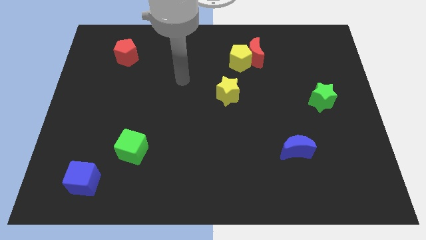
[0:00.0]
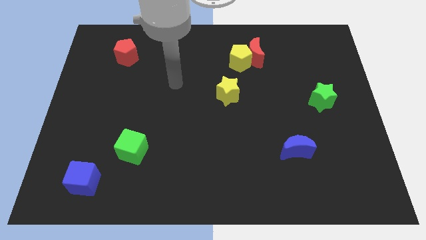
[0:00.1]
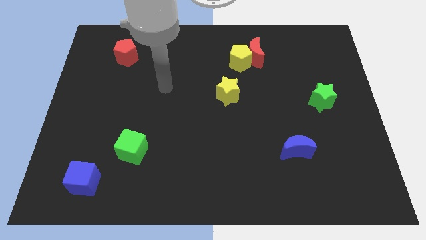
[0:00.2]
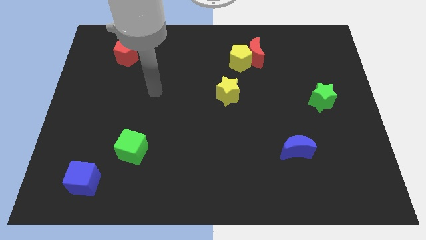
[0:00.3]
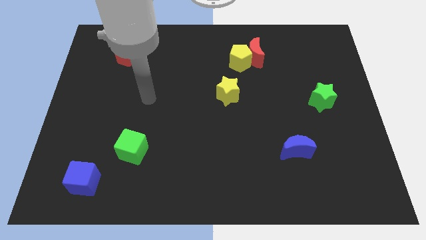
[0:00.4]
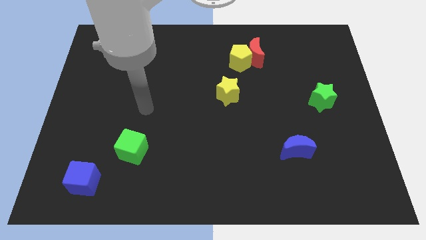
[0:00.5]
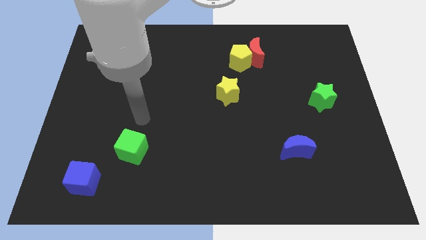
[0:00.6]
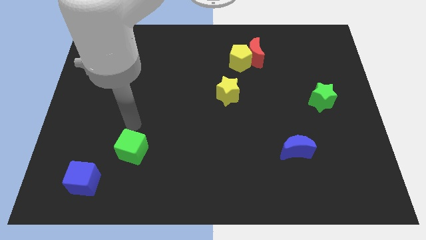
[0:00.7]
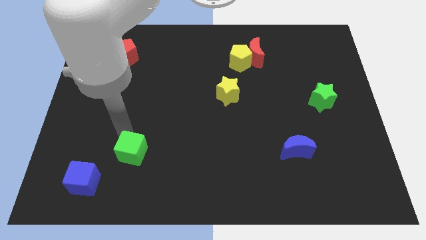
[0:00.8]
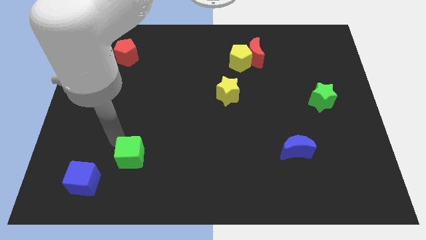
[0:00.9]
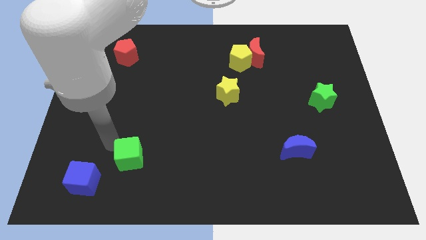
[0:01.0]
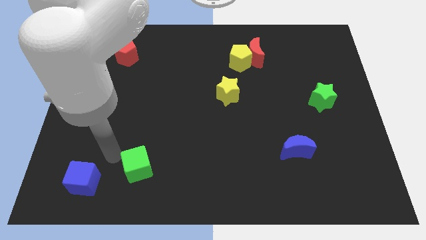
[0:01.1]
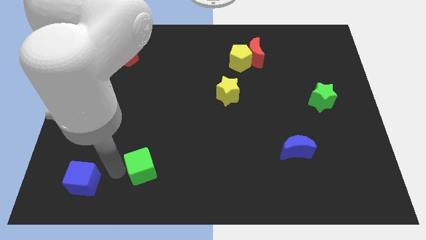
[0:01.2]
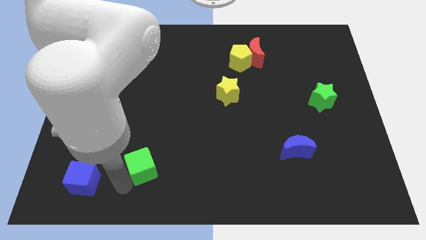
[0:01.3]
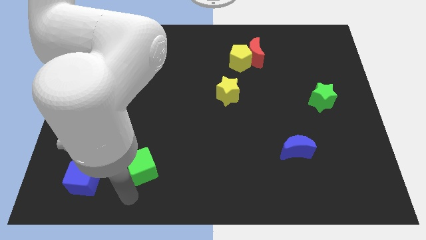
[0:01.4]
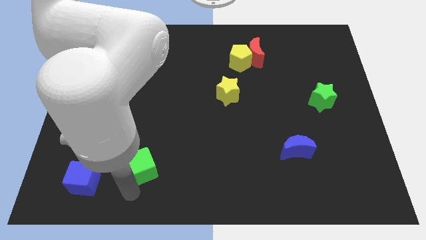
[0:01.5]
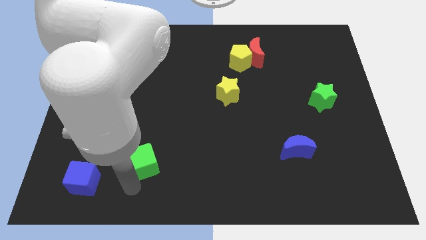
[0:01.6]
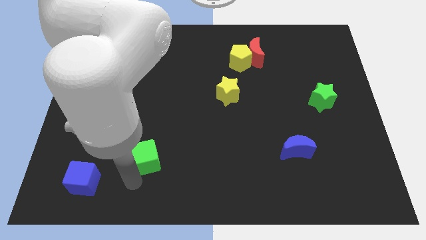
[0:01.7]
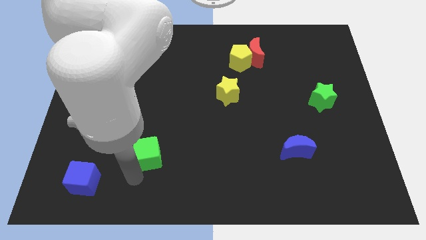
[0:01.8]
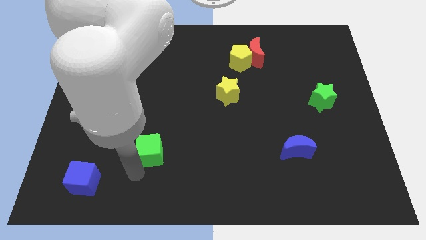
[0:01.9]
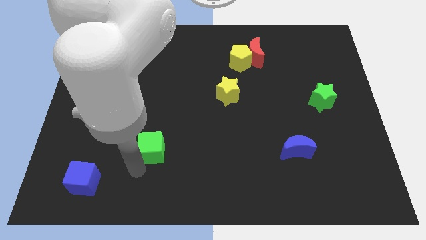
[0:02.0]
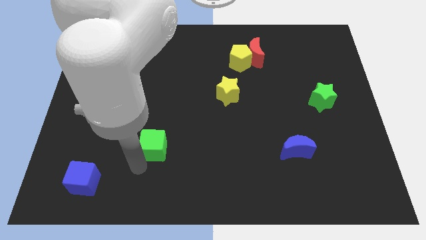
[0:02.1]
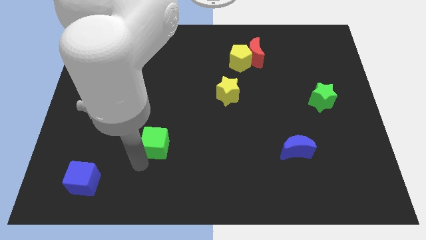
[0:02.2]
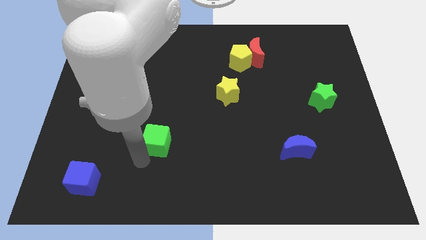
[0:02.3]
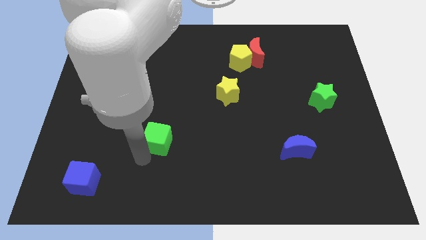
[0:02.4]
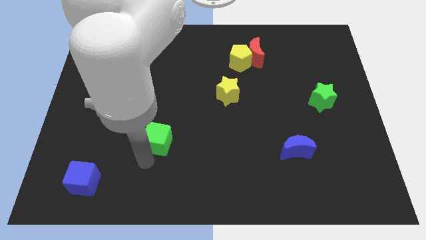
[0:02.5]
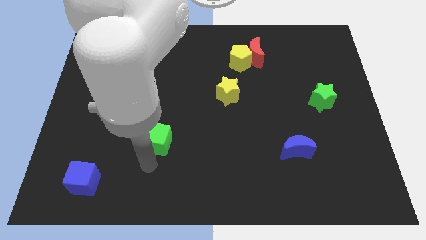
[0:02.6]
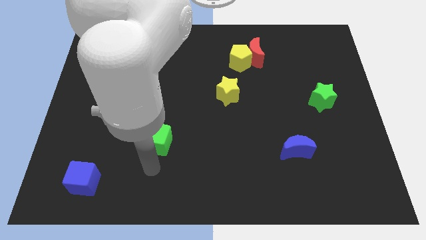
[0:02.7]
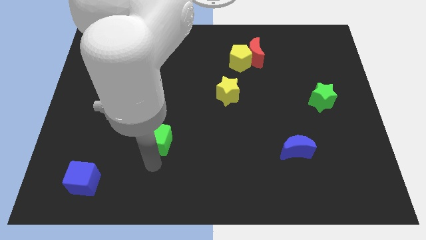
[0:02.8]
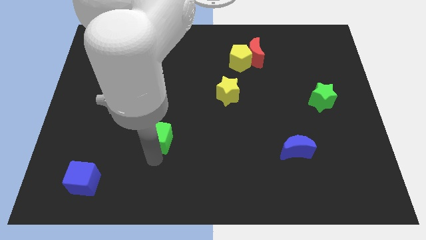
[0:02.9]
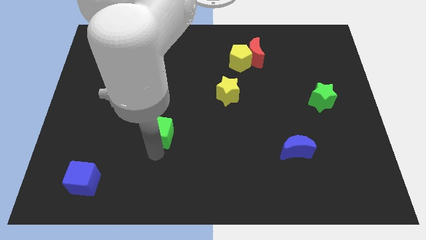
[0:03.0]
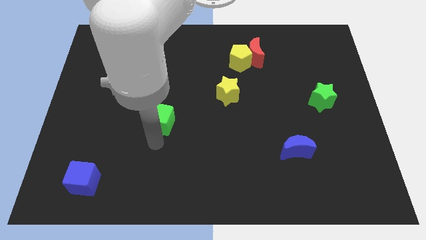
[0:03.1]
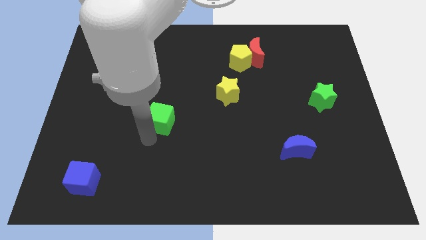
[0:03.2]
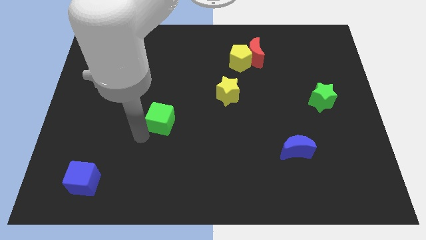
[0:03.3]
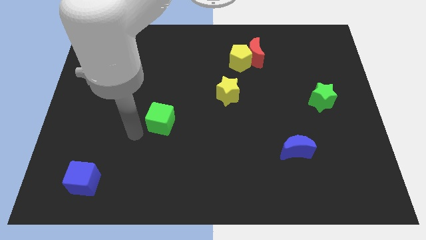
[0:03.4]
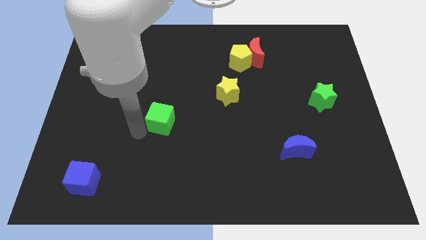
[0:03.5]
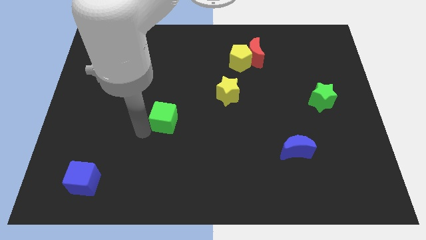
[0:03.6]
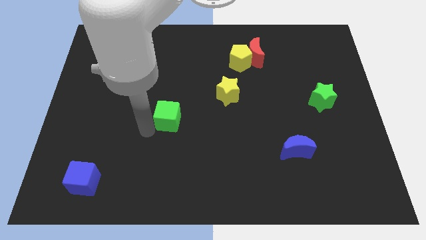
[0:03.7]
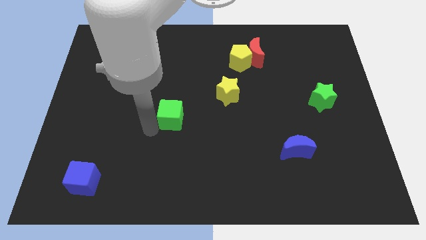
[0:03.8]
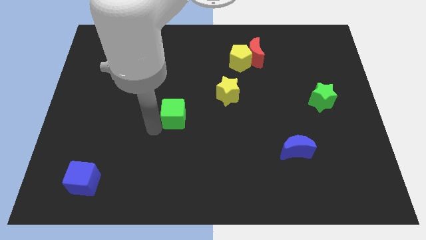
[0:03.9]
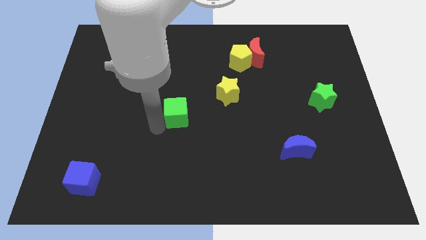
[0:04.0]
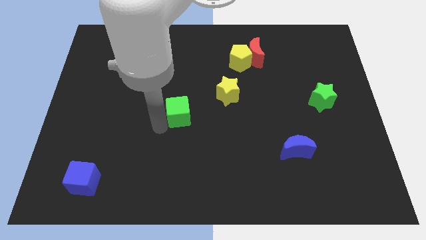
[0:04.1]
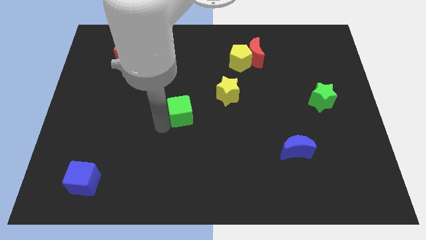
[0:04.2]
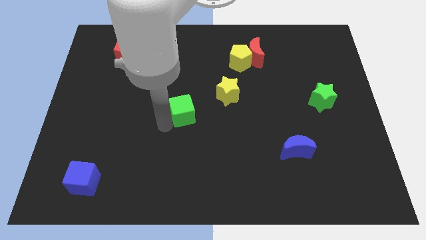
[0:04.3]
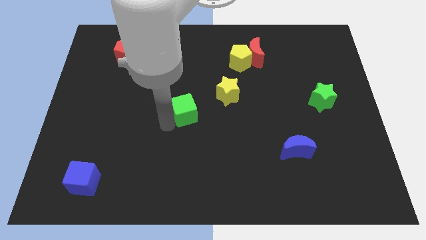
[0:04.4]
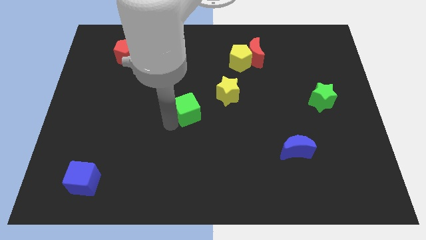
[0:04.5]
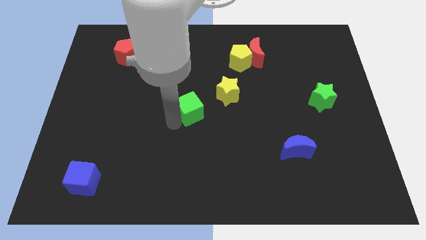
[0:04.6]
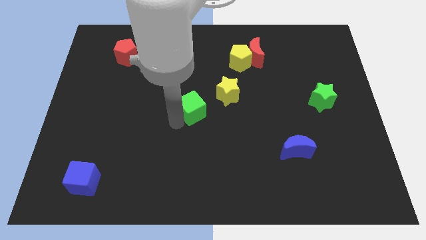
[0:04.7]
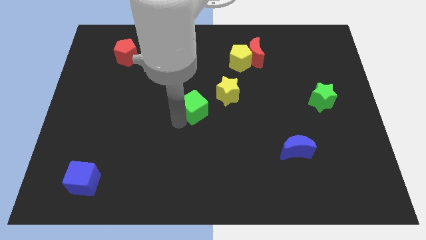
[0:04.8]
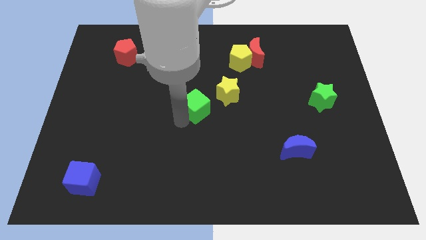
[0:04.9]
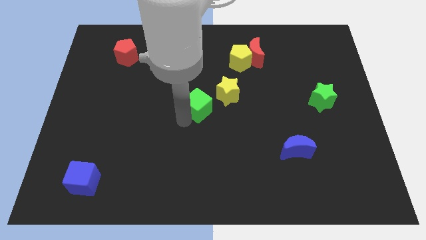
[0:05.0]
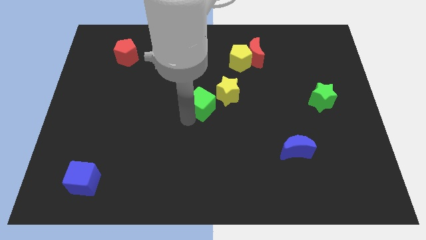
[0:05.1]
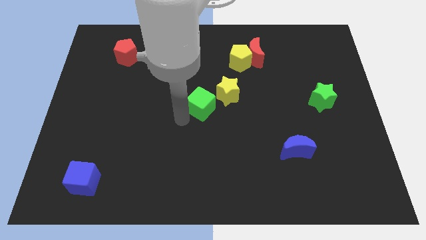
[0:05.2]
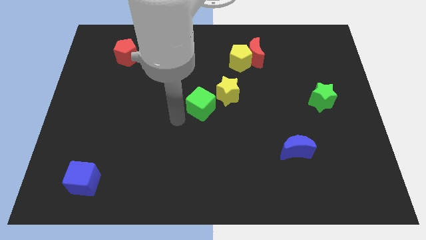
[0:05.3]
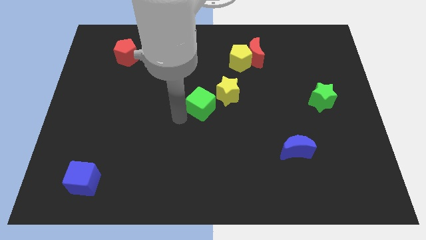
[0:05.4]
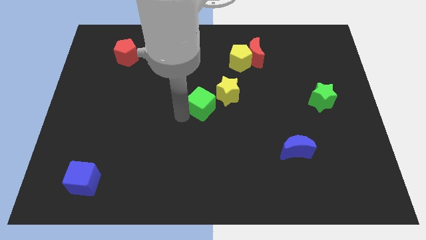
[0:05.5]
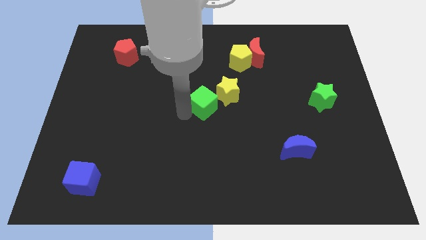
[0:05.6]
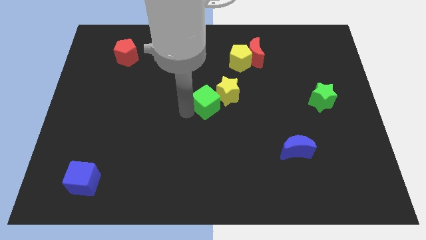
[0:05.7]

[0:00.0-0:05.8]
slide the green cube next to the yellow star

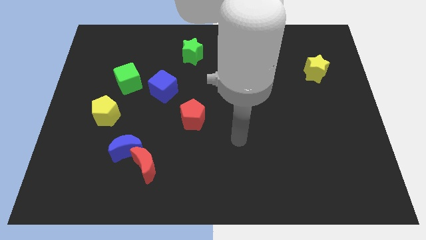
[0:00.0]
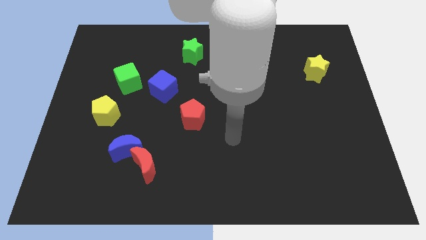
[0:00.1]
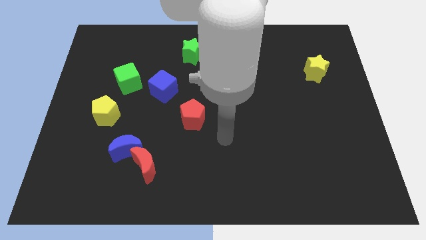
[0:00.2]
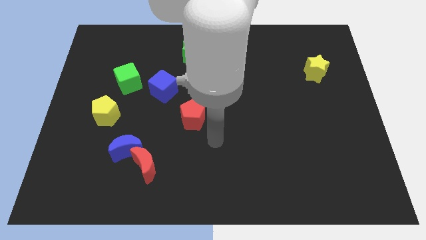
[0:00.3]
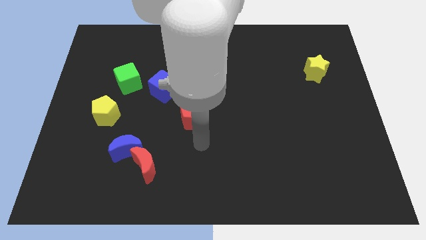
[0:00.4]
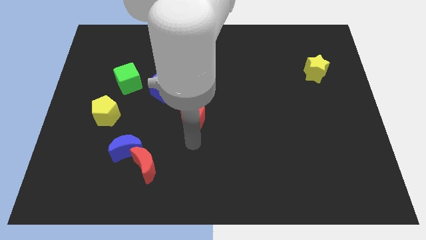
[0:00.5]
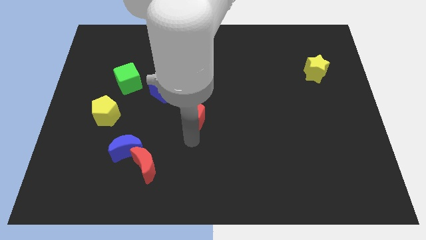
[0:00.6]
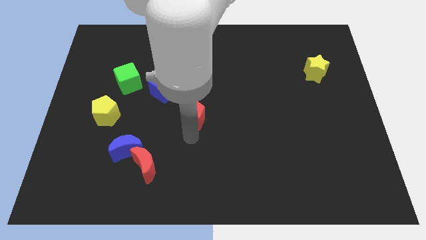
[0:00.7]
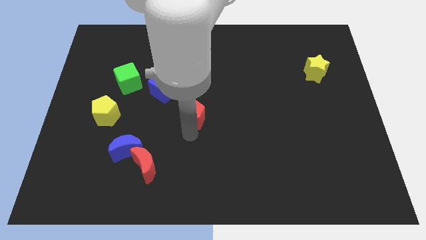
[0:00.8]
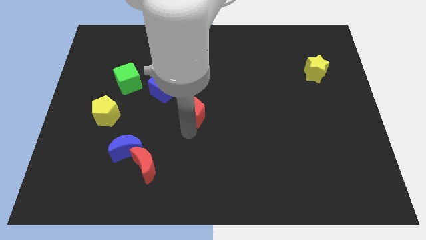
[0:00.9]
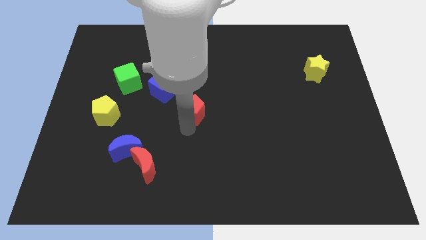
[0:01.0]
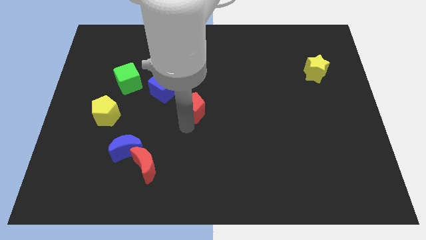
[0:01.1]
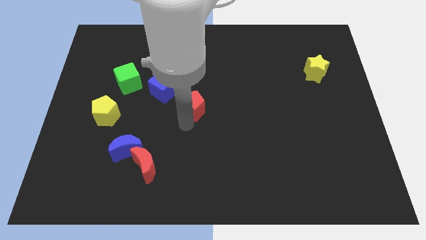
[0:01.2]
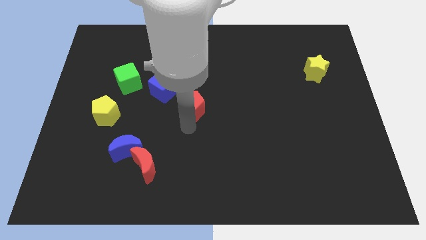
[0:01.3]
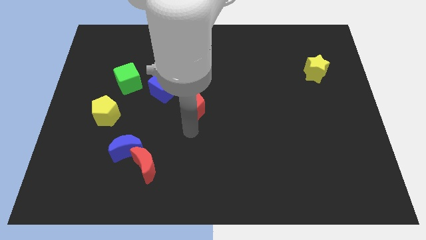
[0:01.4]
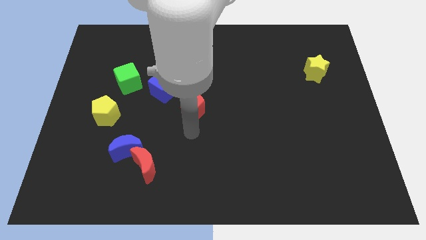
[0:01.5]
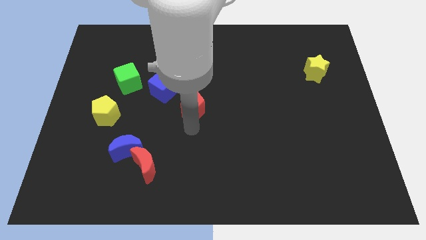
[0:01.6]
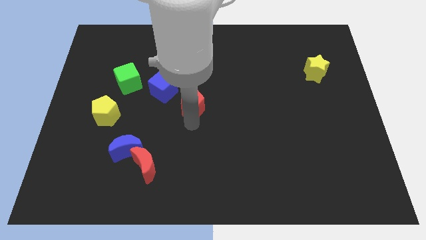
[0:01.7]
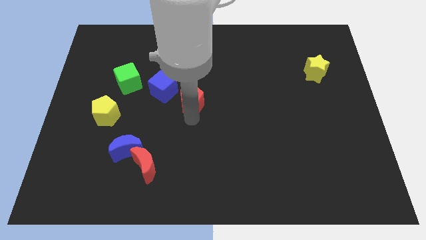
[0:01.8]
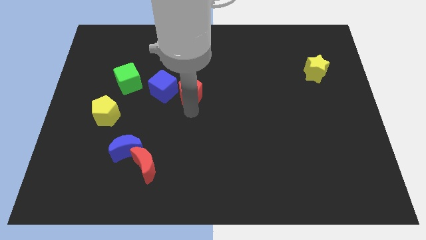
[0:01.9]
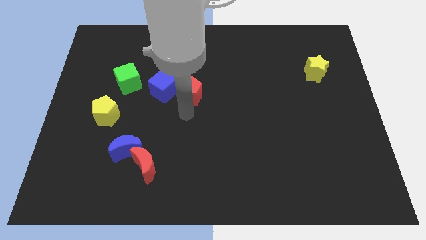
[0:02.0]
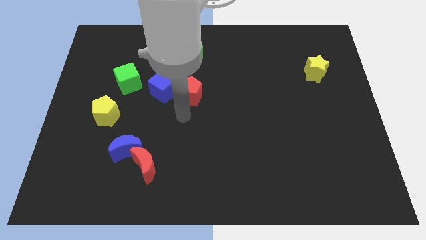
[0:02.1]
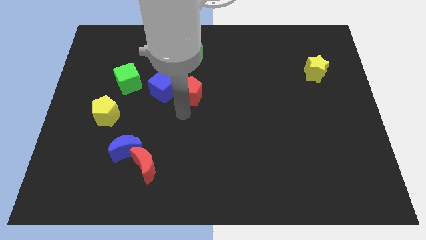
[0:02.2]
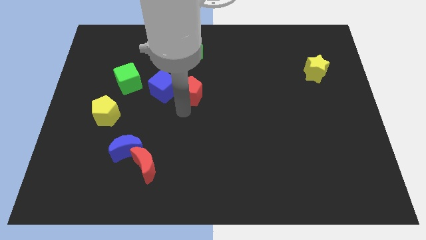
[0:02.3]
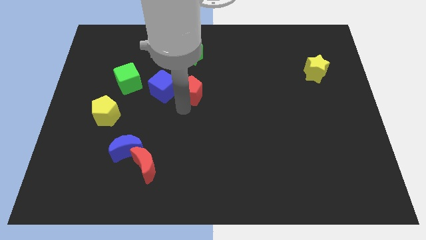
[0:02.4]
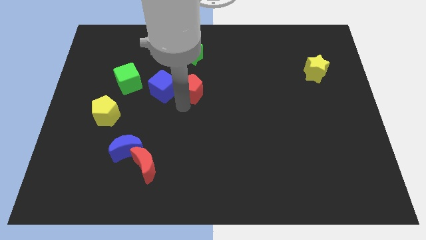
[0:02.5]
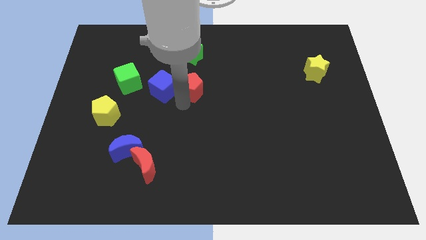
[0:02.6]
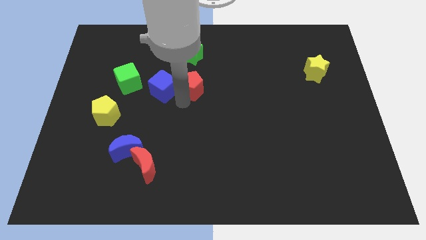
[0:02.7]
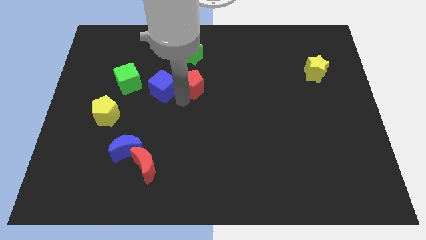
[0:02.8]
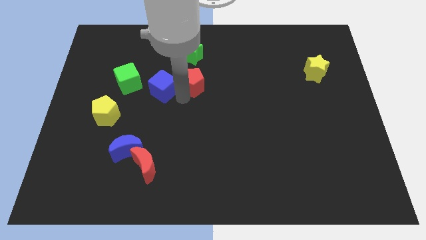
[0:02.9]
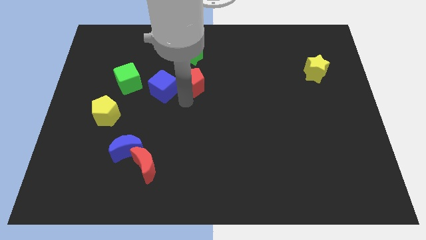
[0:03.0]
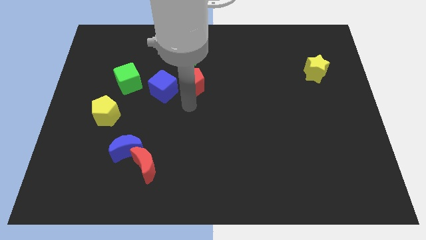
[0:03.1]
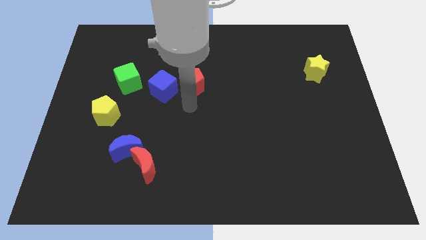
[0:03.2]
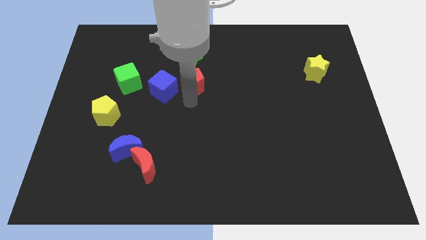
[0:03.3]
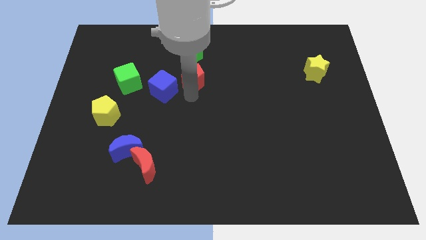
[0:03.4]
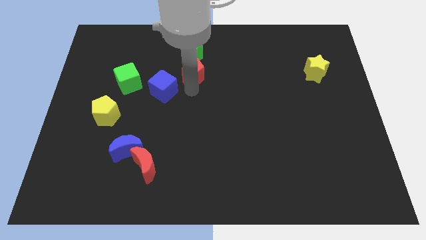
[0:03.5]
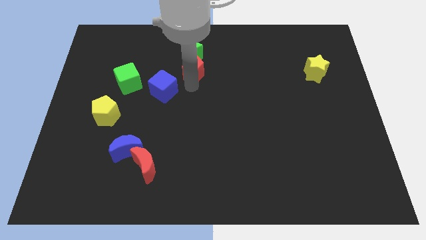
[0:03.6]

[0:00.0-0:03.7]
move the red pentagon to the green star
